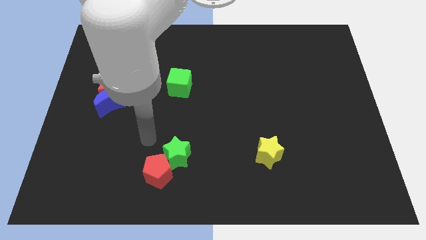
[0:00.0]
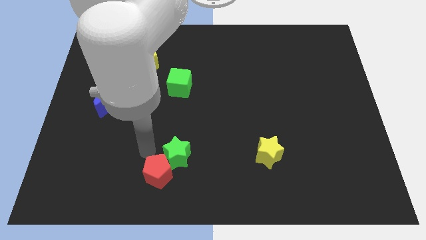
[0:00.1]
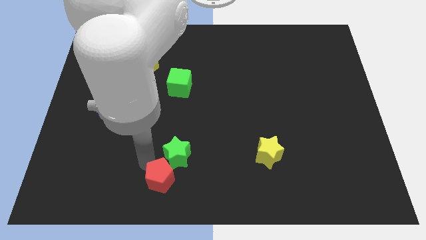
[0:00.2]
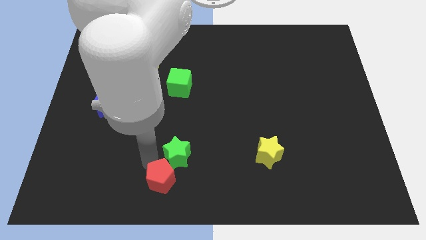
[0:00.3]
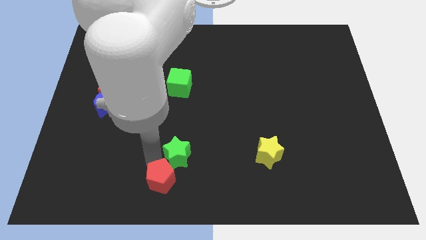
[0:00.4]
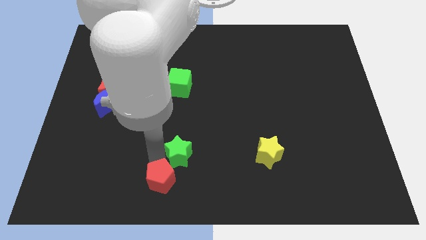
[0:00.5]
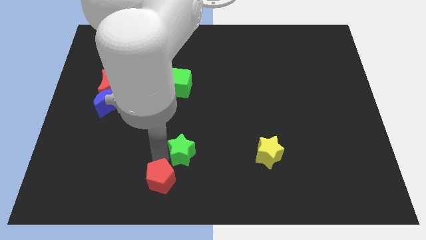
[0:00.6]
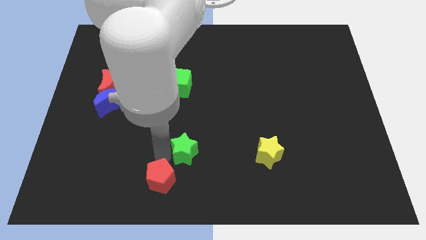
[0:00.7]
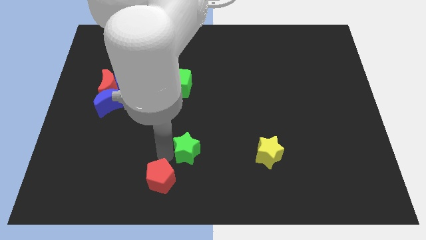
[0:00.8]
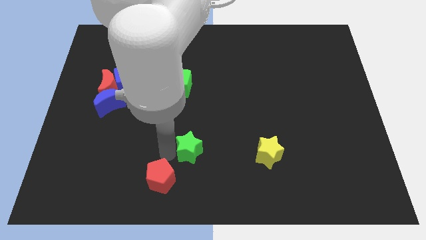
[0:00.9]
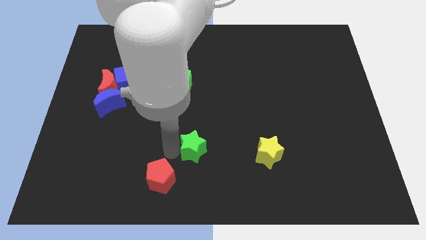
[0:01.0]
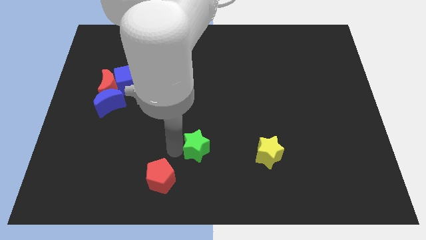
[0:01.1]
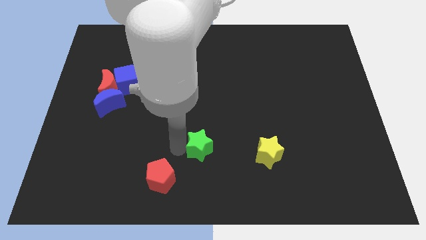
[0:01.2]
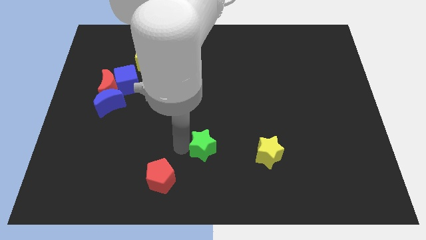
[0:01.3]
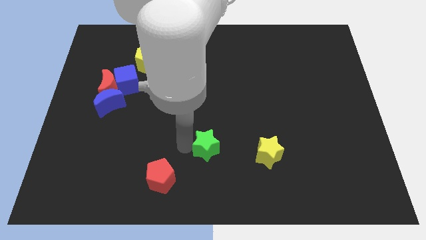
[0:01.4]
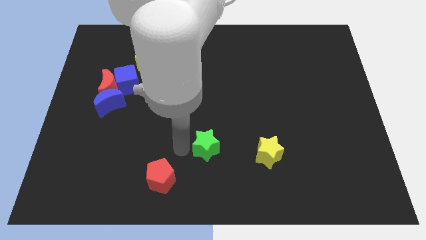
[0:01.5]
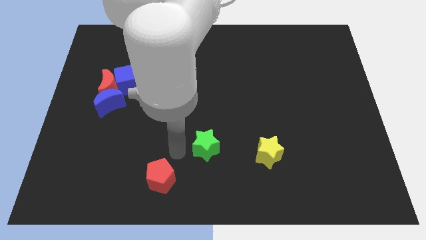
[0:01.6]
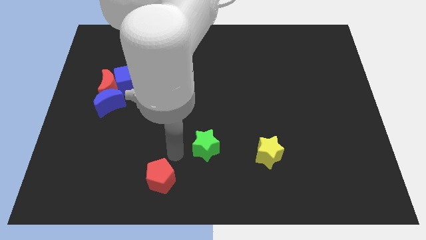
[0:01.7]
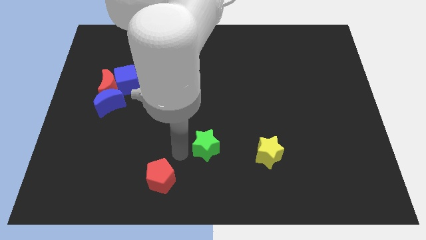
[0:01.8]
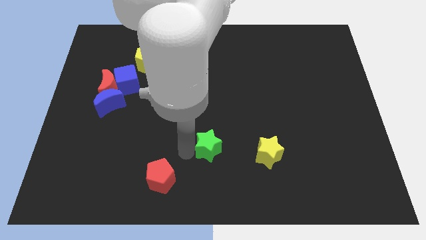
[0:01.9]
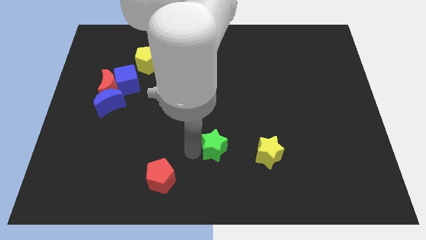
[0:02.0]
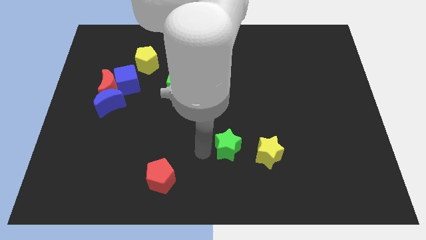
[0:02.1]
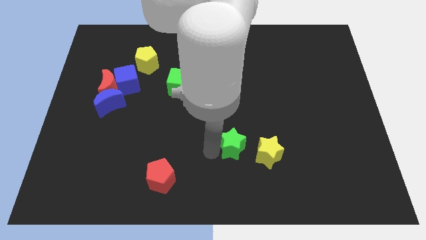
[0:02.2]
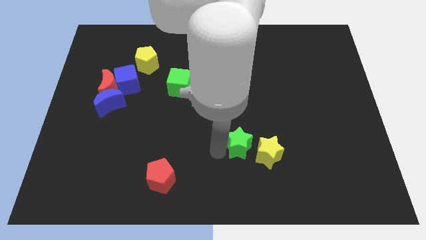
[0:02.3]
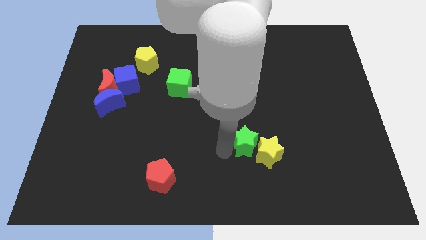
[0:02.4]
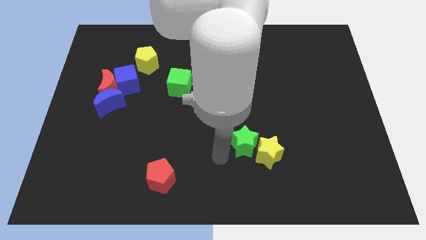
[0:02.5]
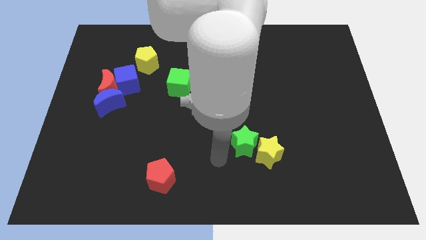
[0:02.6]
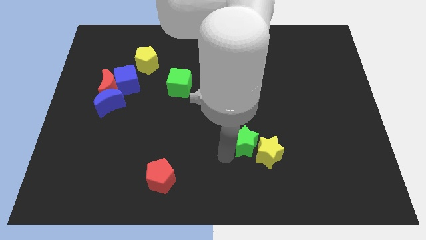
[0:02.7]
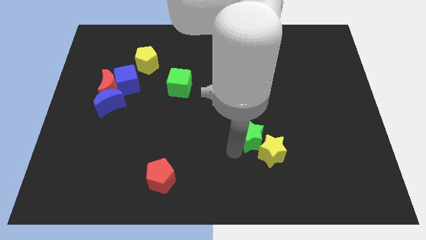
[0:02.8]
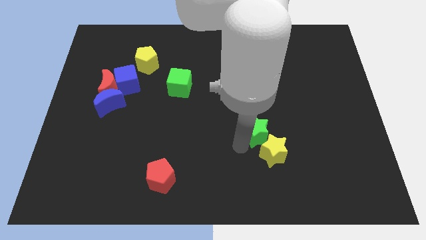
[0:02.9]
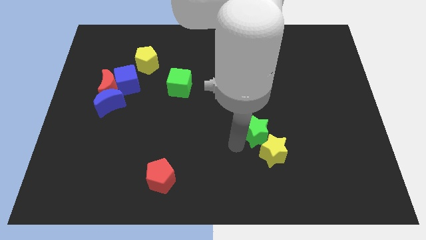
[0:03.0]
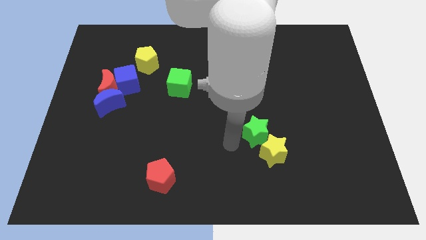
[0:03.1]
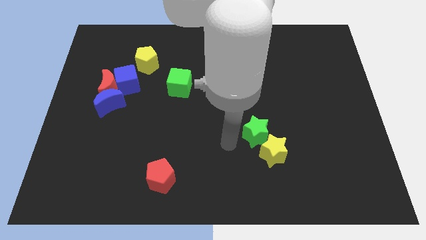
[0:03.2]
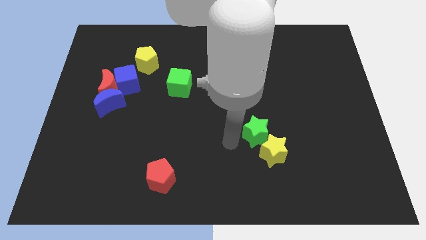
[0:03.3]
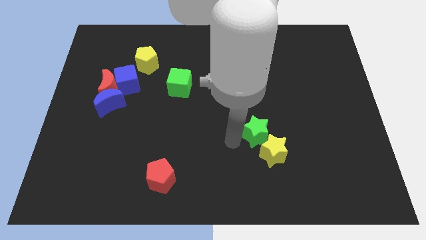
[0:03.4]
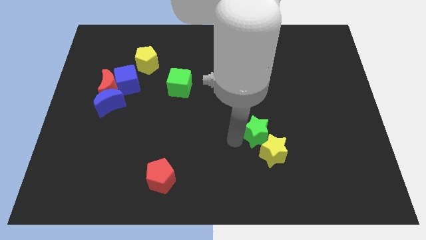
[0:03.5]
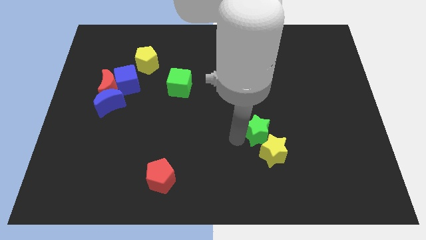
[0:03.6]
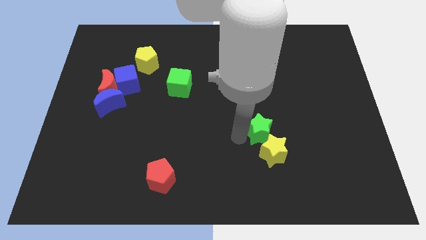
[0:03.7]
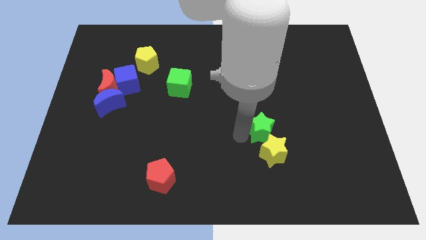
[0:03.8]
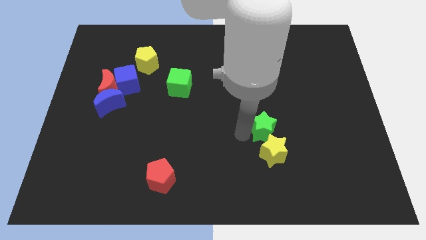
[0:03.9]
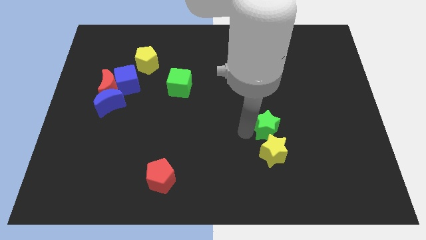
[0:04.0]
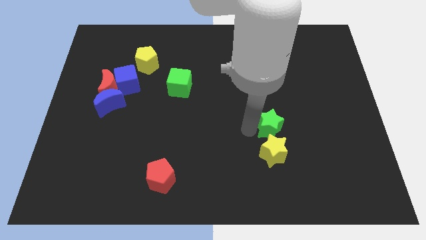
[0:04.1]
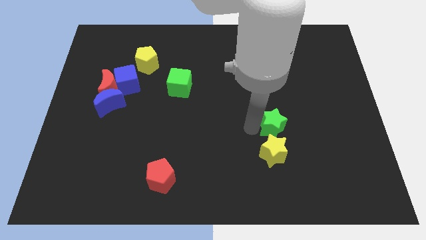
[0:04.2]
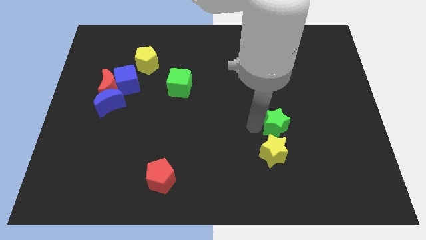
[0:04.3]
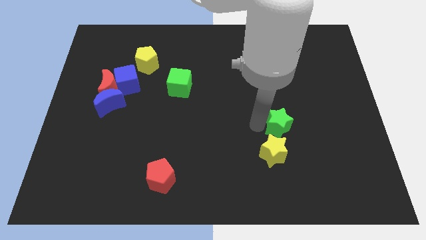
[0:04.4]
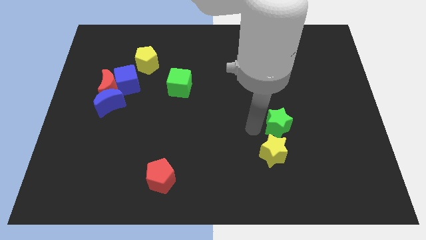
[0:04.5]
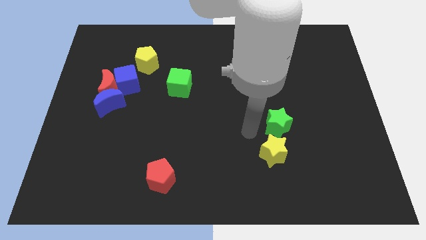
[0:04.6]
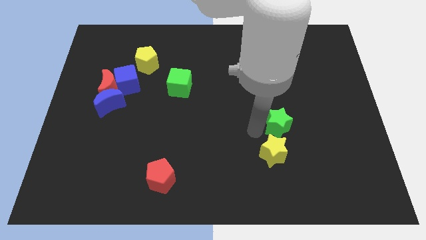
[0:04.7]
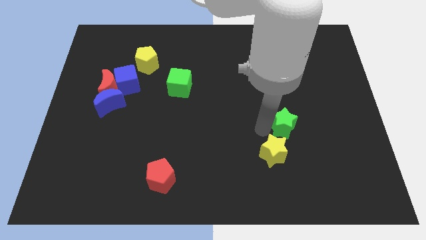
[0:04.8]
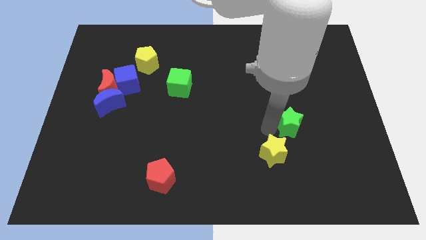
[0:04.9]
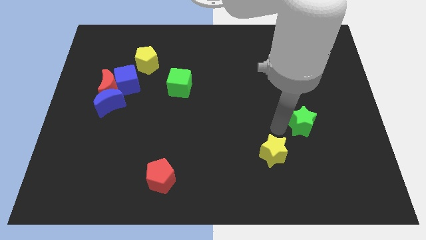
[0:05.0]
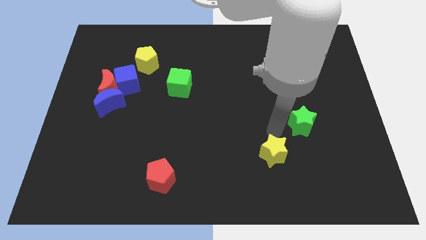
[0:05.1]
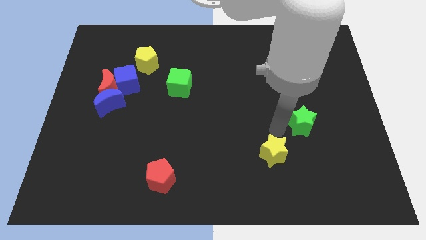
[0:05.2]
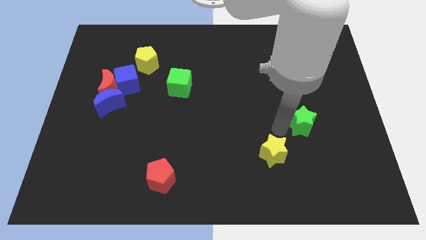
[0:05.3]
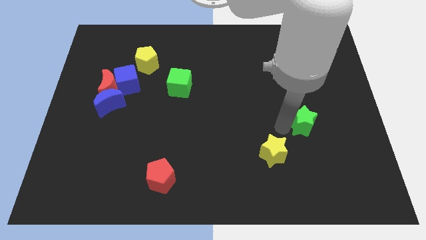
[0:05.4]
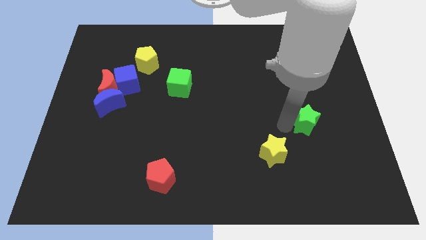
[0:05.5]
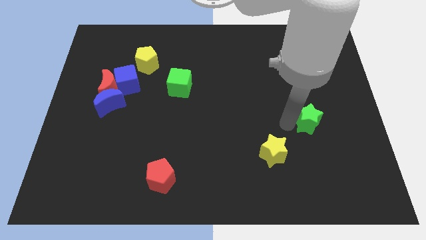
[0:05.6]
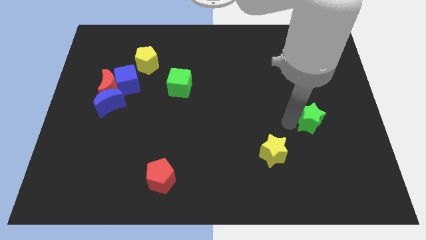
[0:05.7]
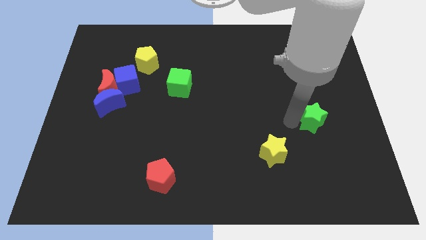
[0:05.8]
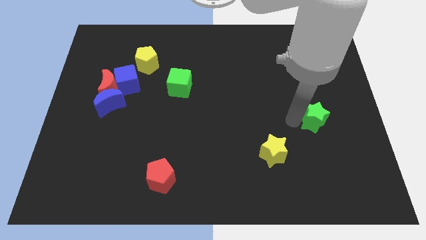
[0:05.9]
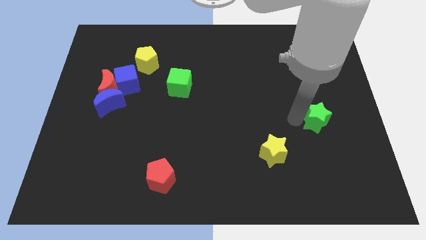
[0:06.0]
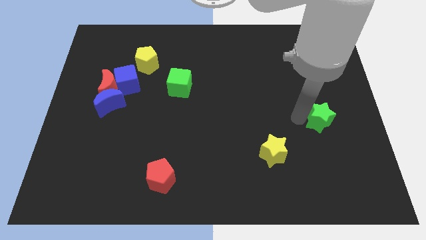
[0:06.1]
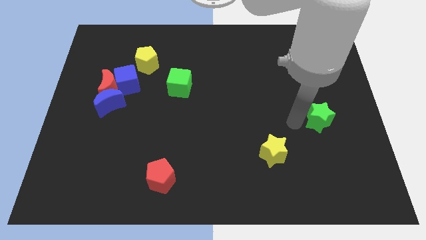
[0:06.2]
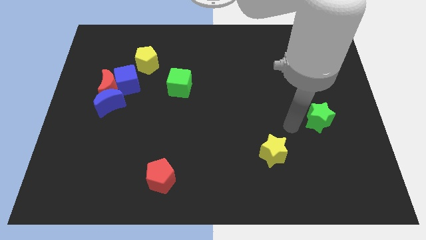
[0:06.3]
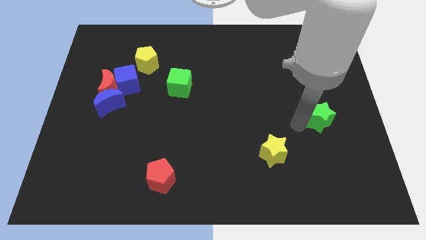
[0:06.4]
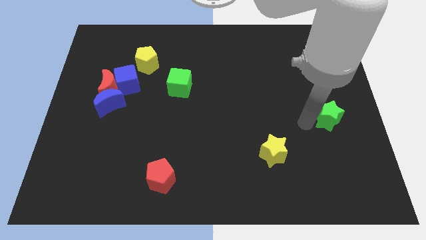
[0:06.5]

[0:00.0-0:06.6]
move the green star to the right side of the board

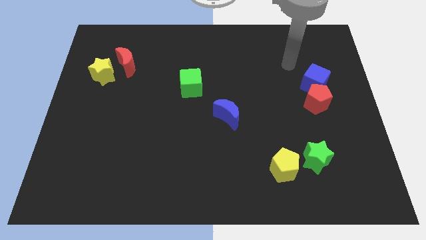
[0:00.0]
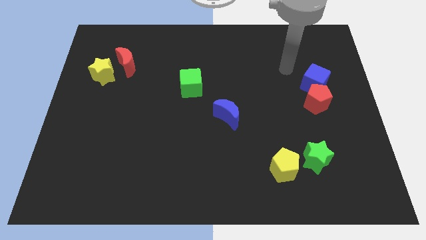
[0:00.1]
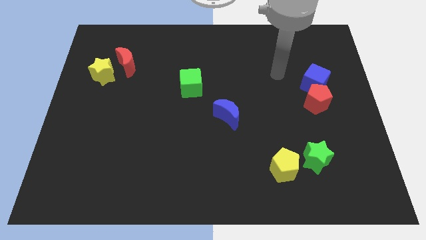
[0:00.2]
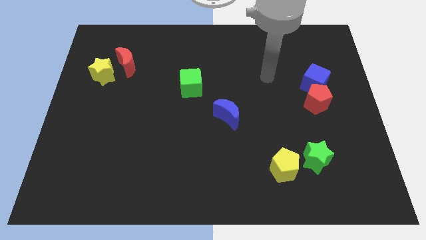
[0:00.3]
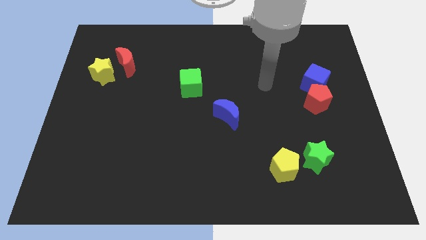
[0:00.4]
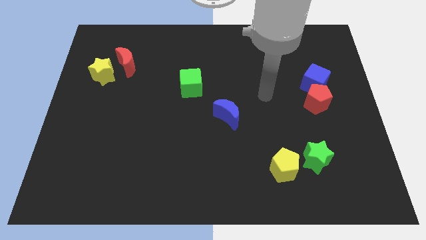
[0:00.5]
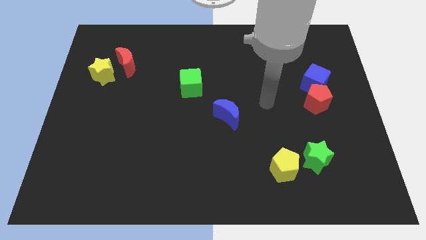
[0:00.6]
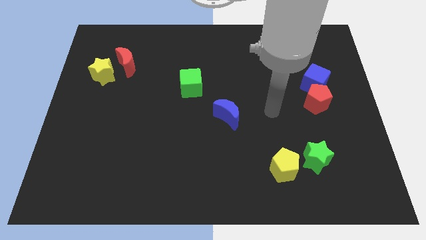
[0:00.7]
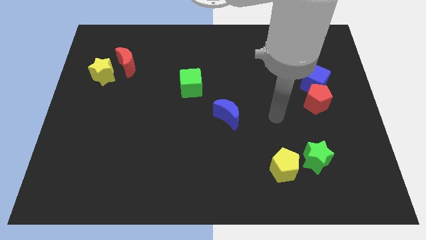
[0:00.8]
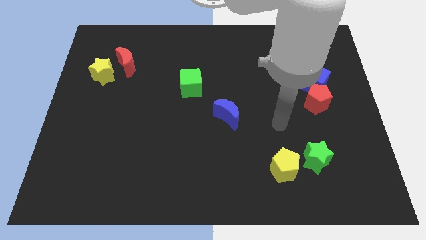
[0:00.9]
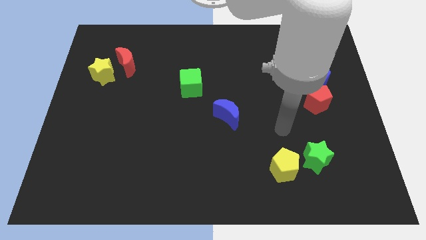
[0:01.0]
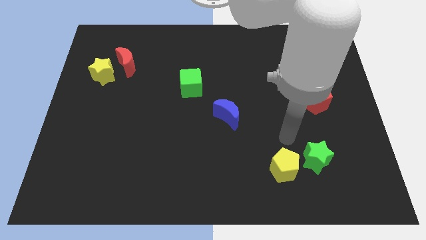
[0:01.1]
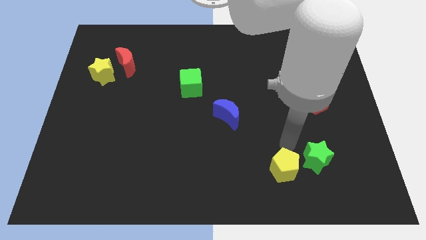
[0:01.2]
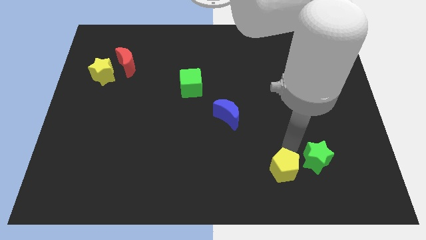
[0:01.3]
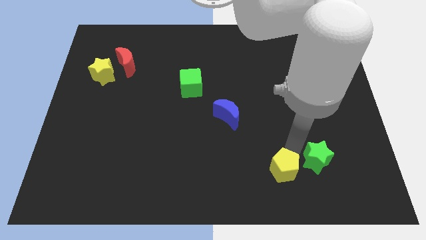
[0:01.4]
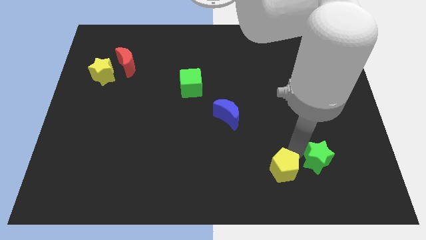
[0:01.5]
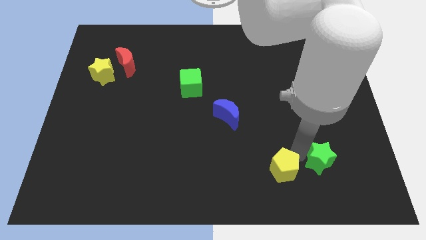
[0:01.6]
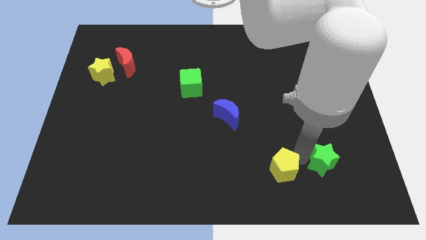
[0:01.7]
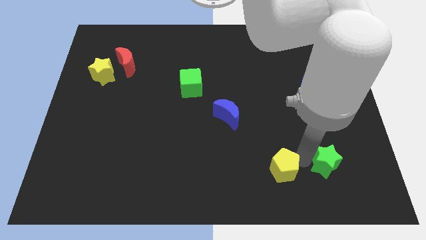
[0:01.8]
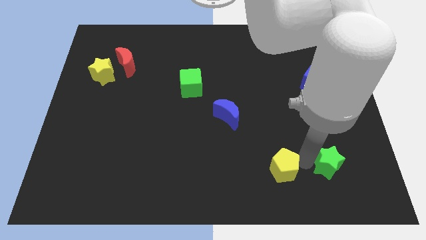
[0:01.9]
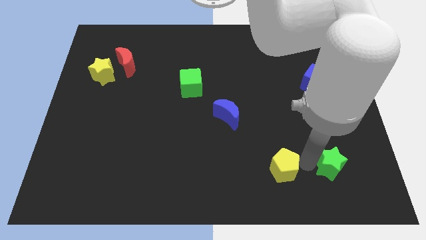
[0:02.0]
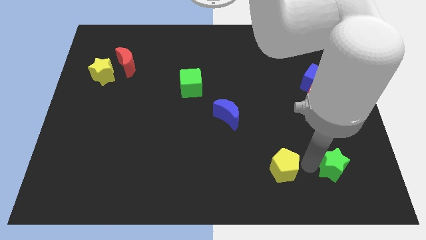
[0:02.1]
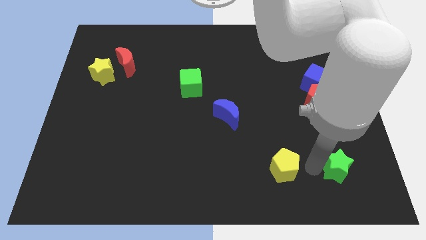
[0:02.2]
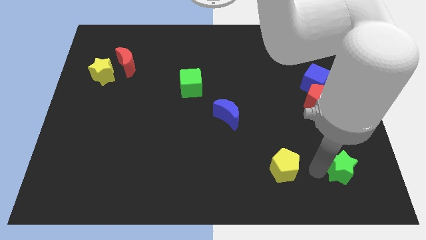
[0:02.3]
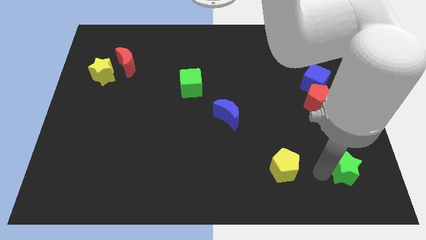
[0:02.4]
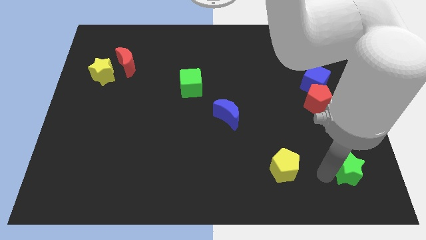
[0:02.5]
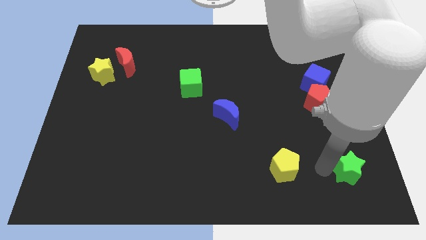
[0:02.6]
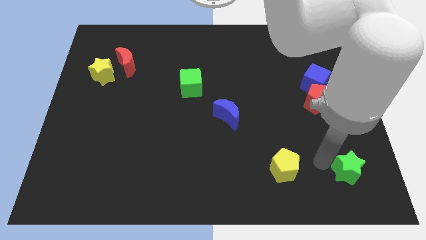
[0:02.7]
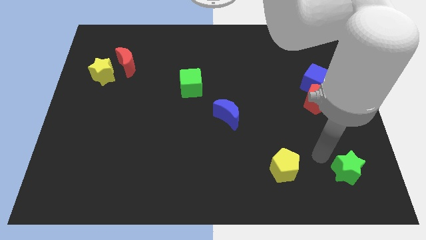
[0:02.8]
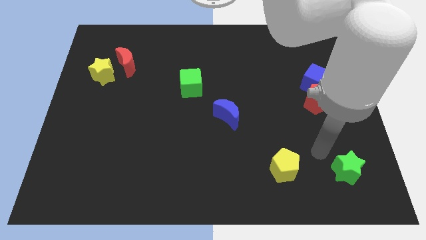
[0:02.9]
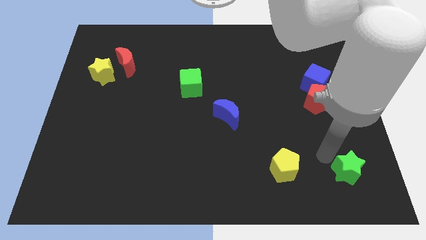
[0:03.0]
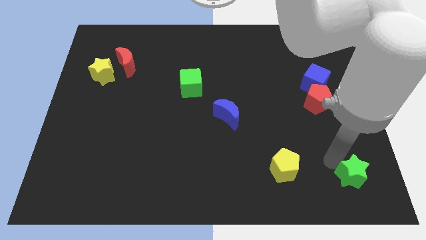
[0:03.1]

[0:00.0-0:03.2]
push the green star to the bottom right of the board
